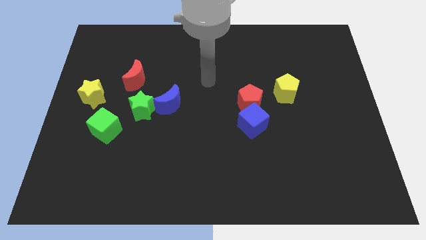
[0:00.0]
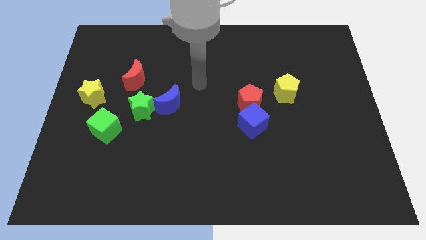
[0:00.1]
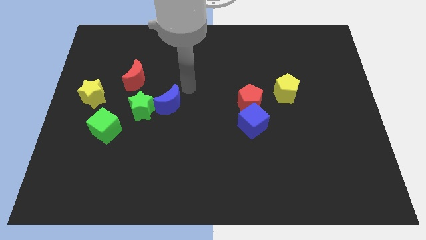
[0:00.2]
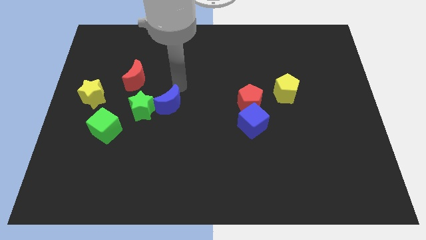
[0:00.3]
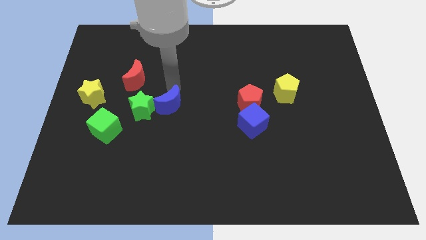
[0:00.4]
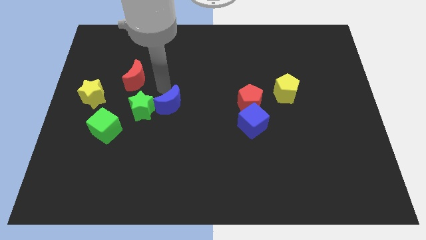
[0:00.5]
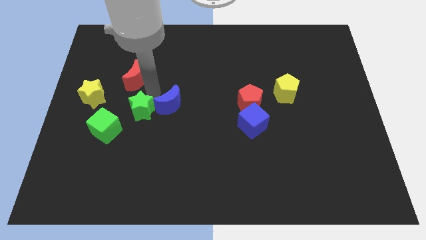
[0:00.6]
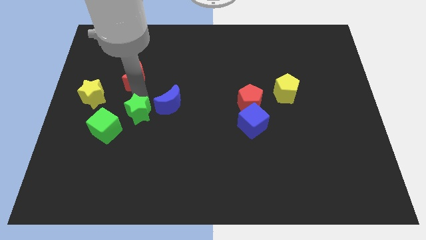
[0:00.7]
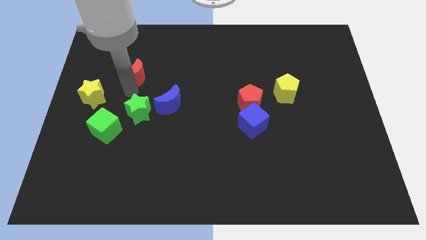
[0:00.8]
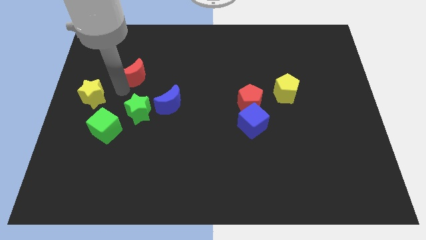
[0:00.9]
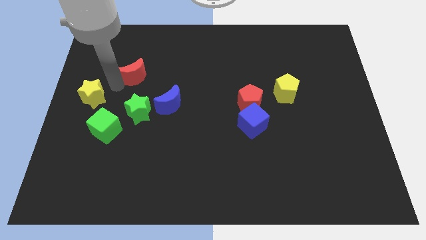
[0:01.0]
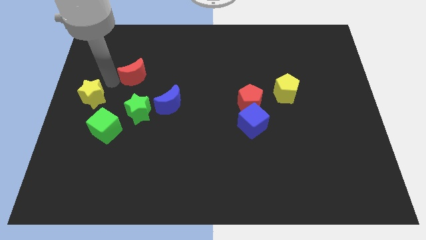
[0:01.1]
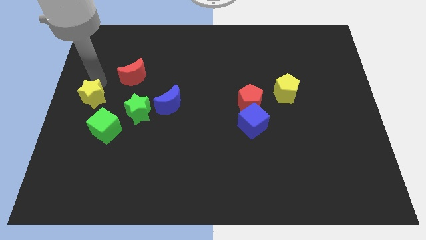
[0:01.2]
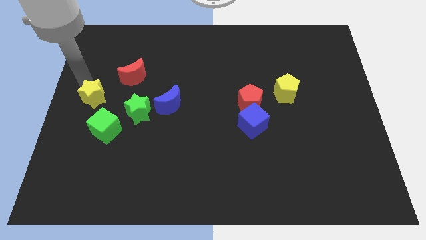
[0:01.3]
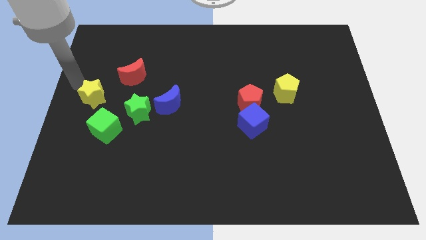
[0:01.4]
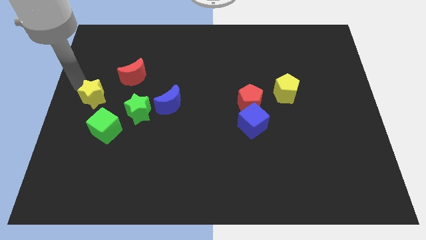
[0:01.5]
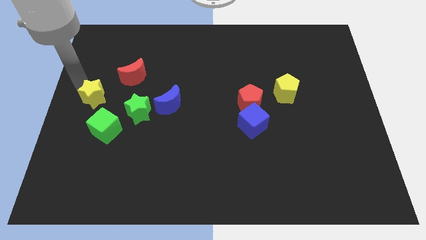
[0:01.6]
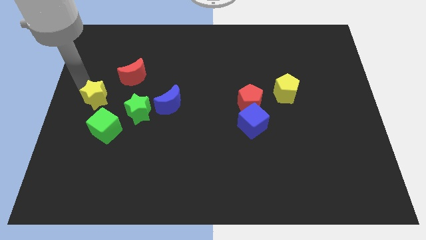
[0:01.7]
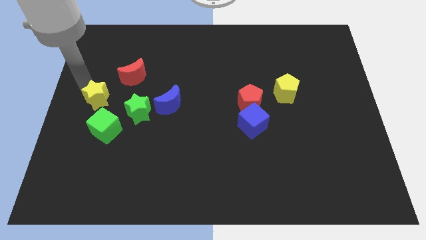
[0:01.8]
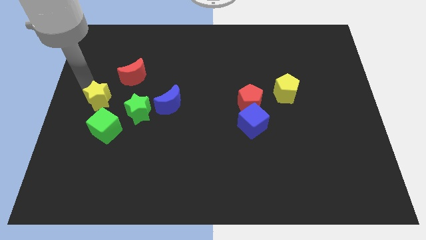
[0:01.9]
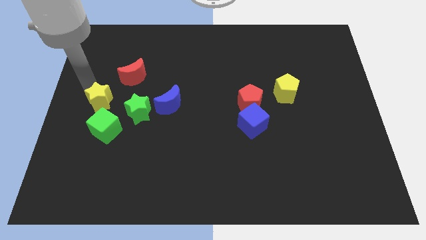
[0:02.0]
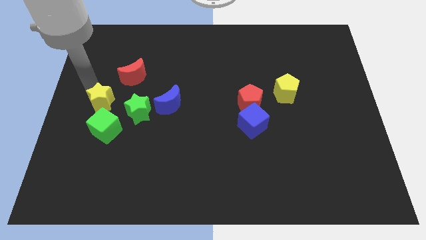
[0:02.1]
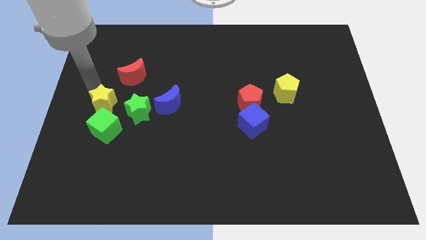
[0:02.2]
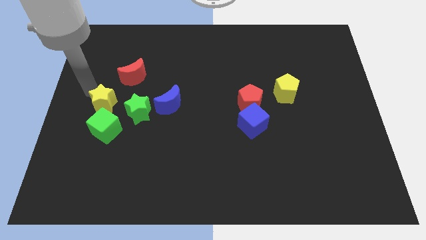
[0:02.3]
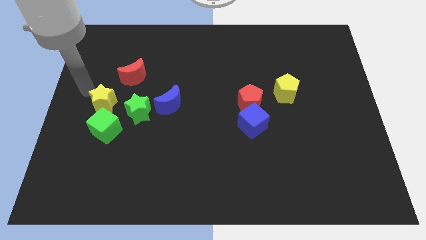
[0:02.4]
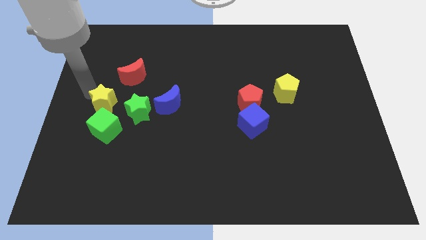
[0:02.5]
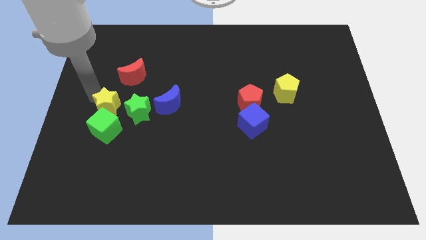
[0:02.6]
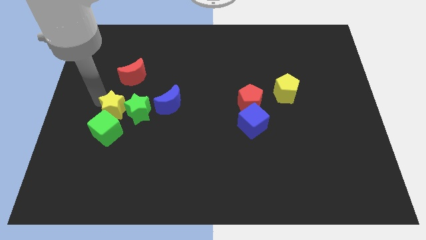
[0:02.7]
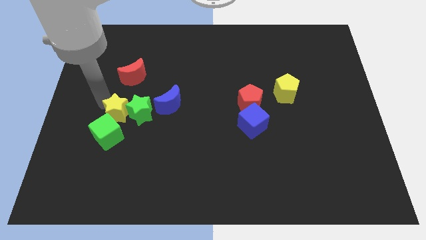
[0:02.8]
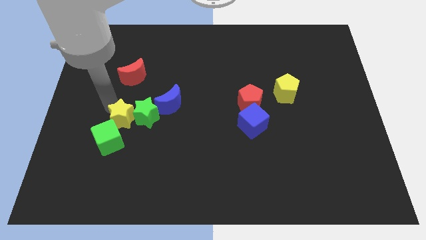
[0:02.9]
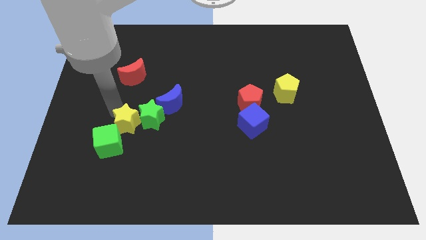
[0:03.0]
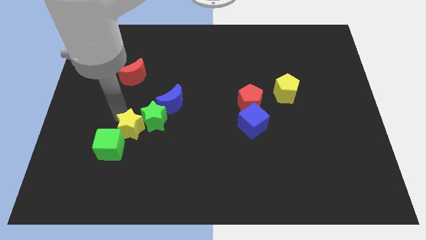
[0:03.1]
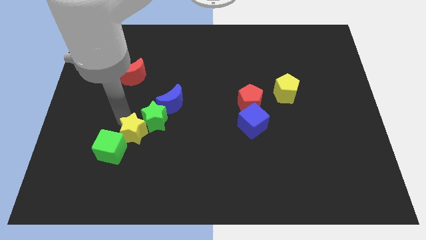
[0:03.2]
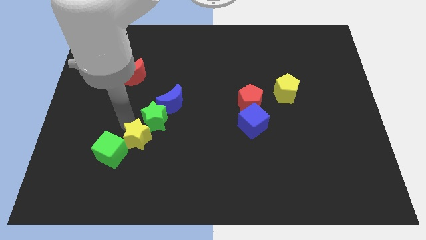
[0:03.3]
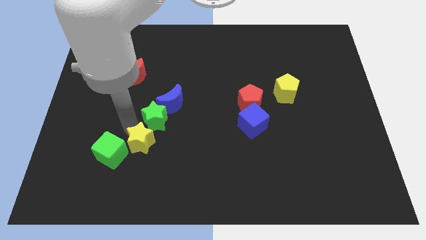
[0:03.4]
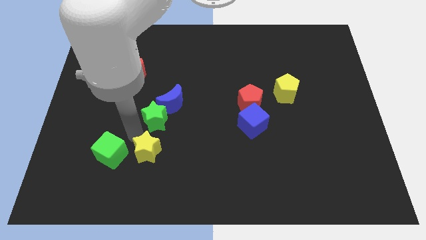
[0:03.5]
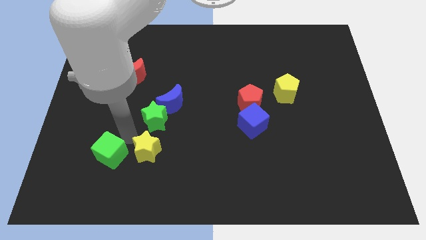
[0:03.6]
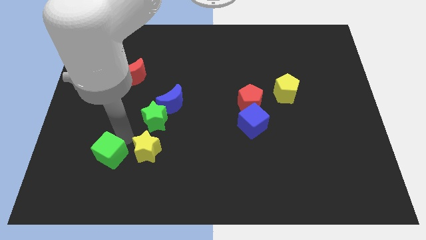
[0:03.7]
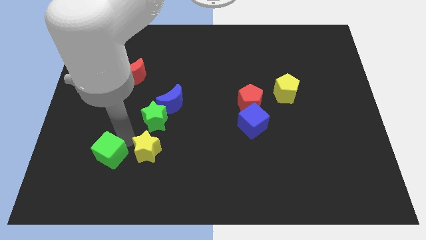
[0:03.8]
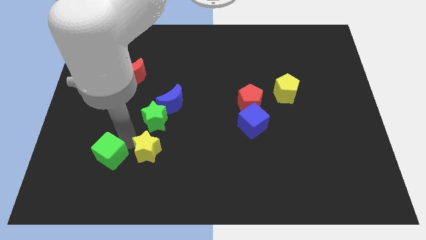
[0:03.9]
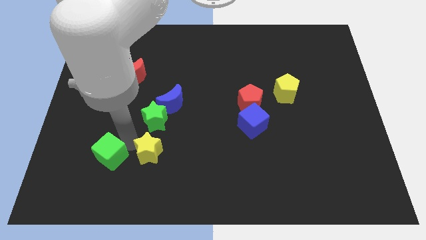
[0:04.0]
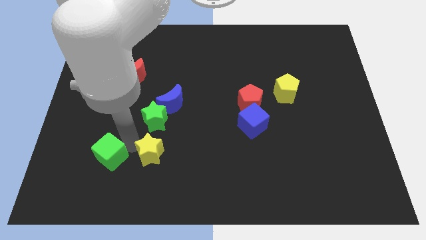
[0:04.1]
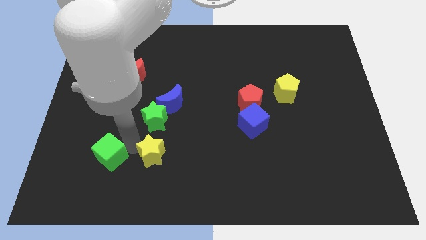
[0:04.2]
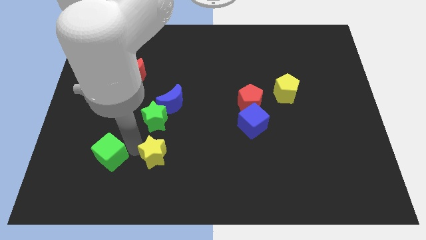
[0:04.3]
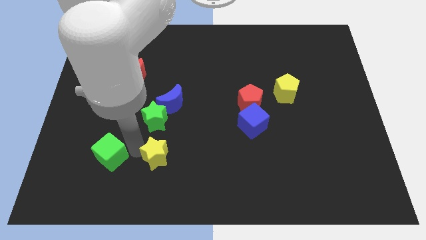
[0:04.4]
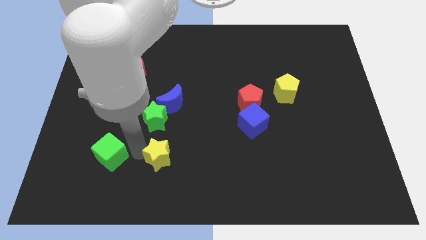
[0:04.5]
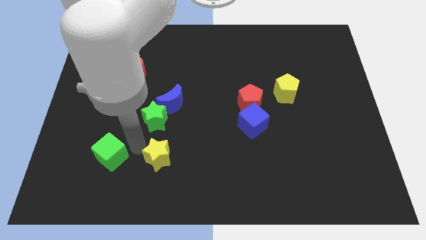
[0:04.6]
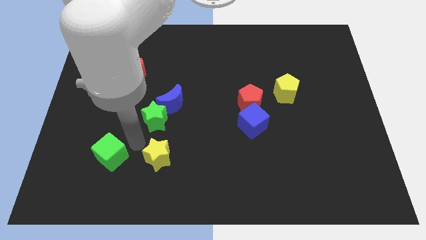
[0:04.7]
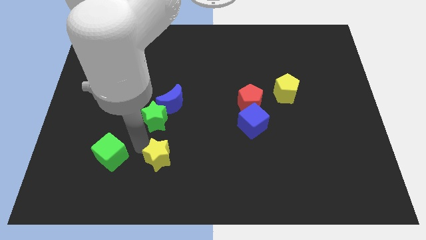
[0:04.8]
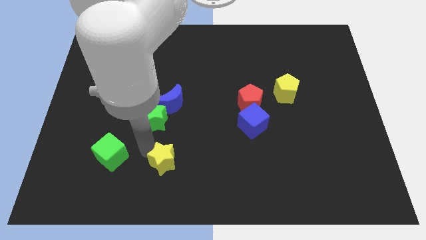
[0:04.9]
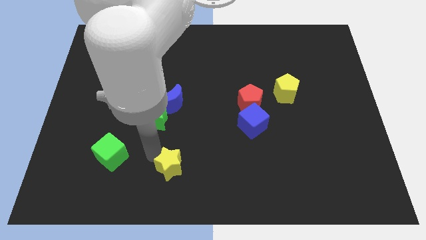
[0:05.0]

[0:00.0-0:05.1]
move the yellow star to the bottom side

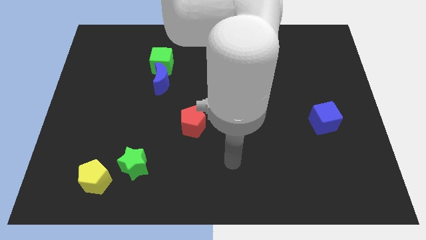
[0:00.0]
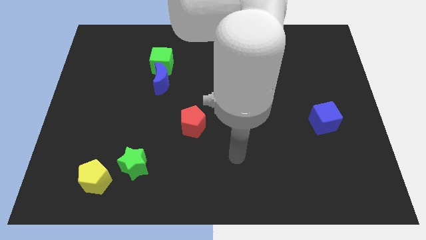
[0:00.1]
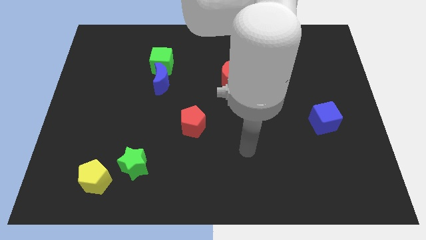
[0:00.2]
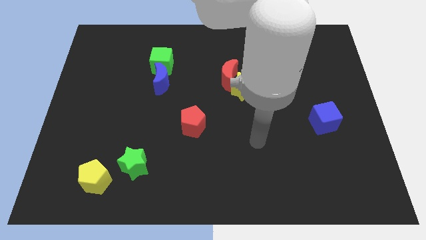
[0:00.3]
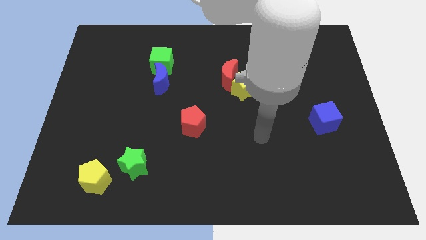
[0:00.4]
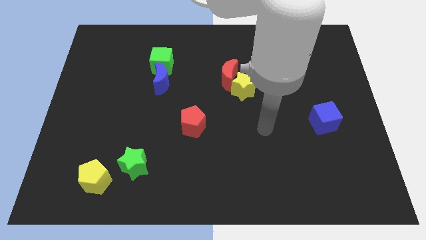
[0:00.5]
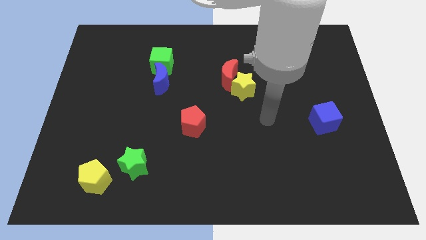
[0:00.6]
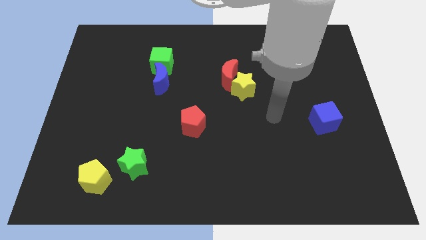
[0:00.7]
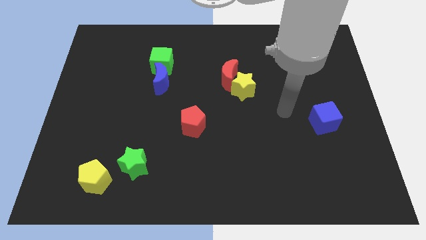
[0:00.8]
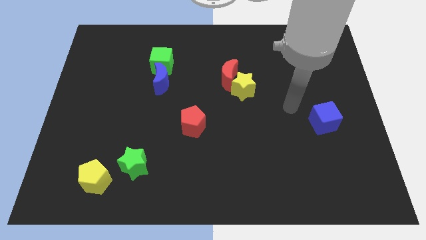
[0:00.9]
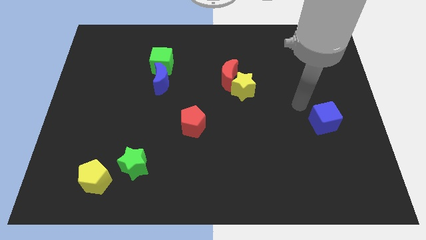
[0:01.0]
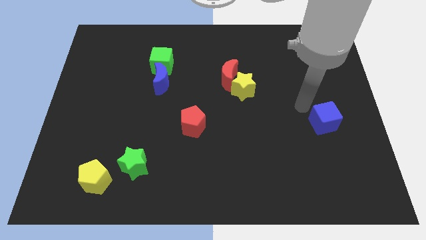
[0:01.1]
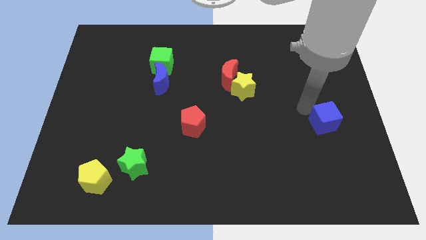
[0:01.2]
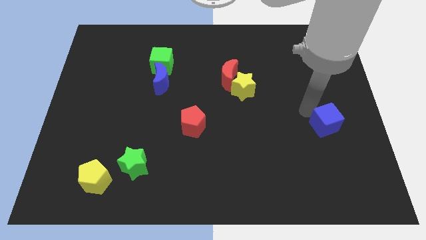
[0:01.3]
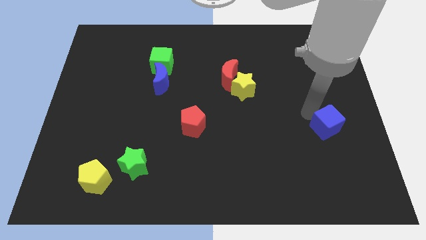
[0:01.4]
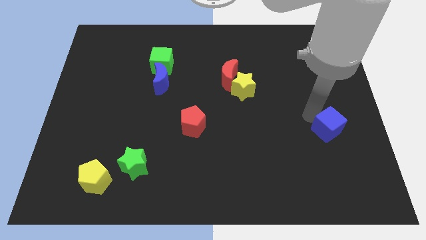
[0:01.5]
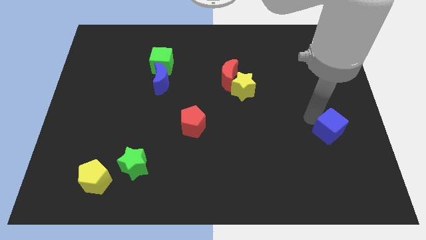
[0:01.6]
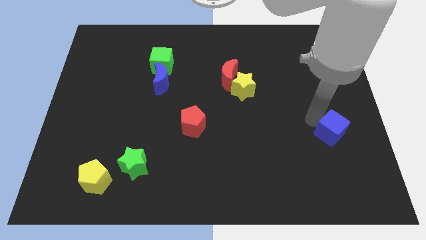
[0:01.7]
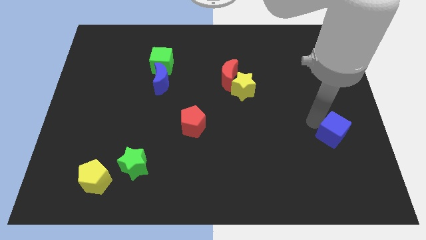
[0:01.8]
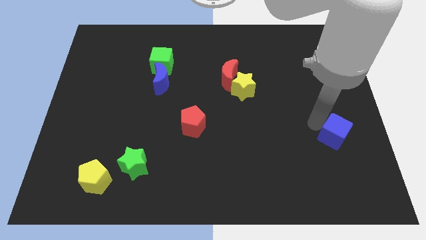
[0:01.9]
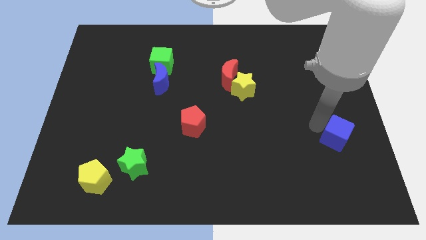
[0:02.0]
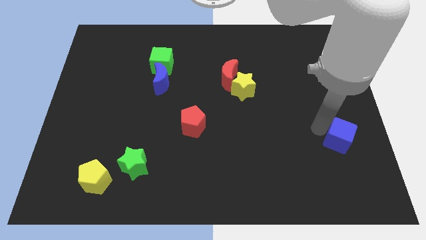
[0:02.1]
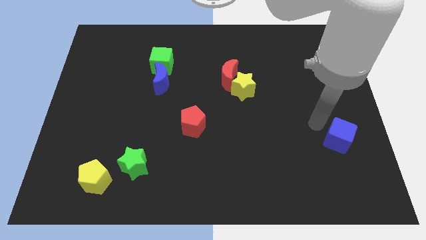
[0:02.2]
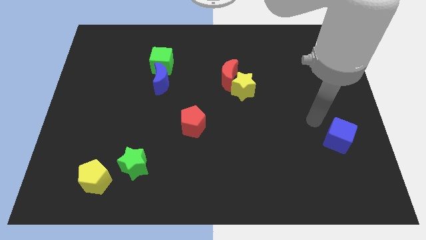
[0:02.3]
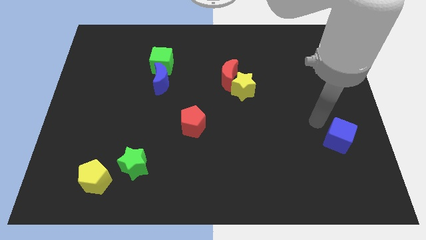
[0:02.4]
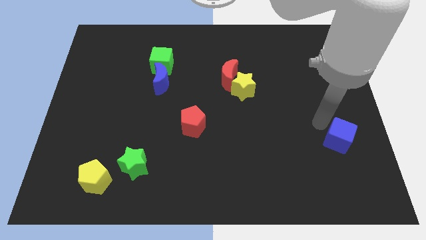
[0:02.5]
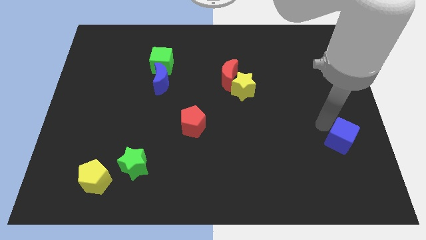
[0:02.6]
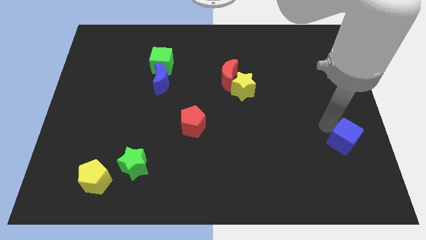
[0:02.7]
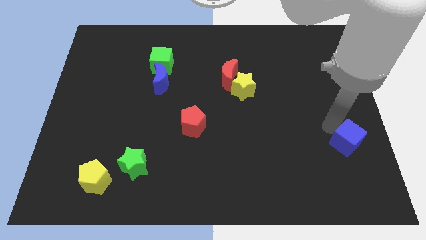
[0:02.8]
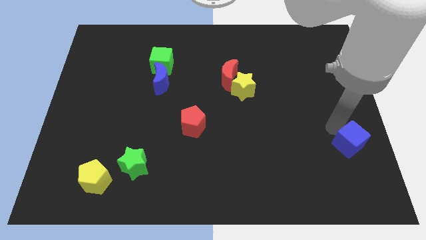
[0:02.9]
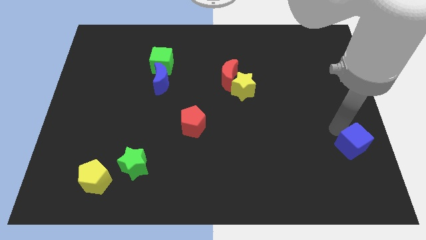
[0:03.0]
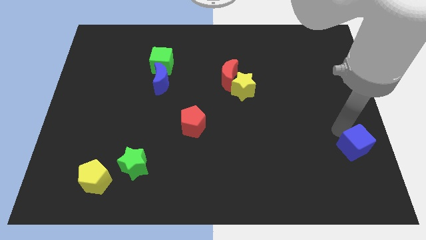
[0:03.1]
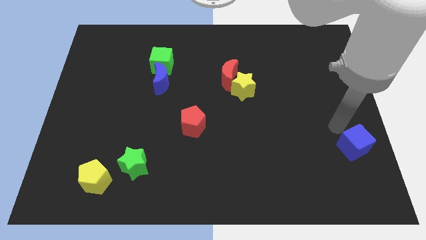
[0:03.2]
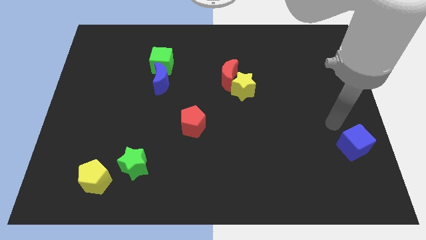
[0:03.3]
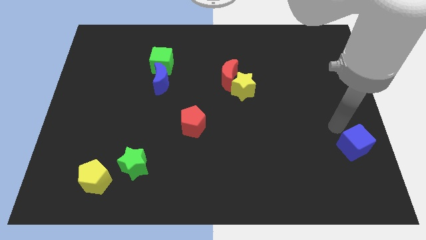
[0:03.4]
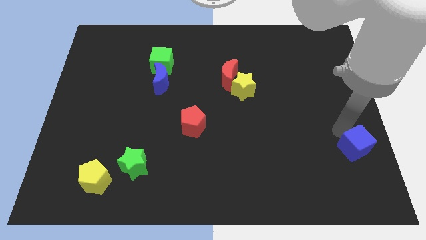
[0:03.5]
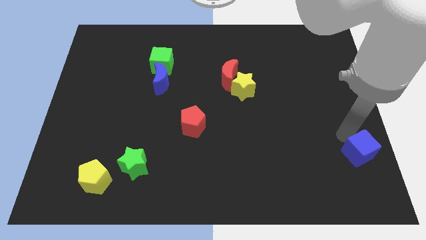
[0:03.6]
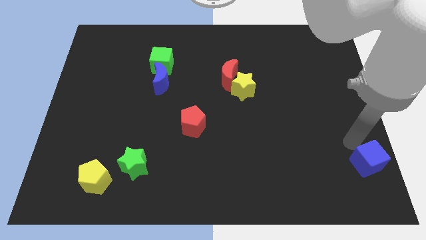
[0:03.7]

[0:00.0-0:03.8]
move the blue cube to the bottom right
